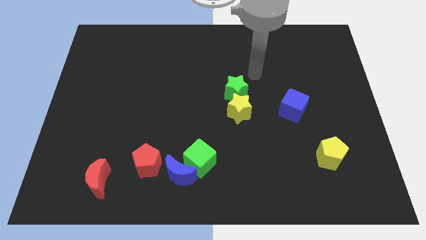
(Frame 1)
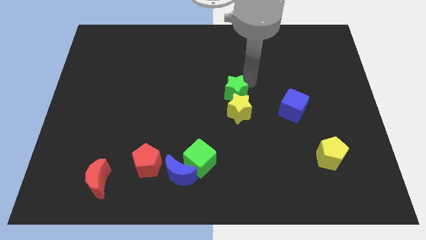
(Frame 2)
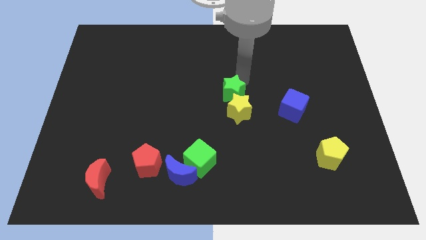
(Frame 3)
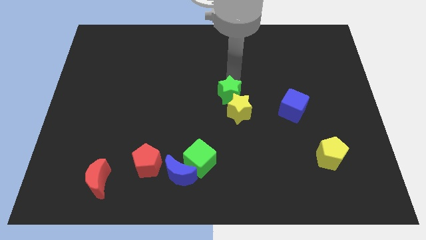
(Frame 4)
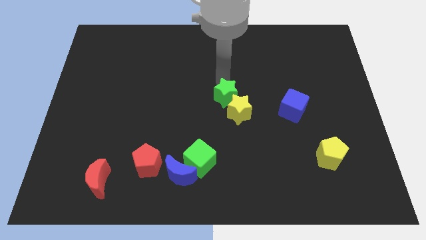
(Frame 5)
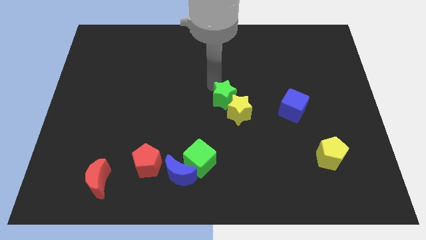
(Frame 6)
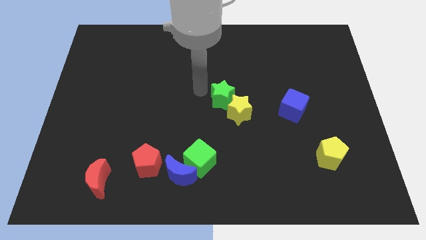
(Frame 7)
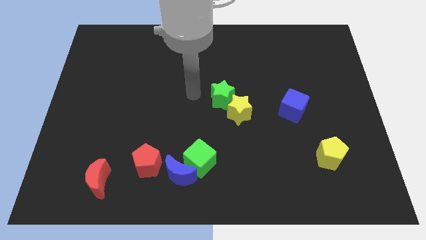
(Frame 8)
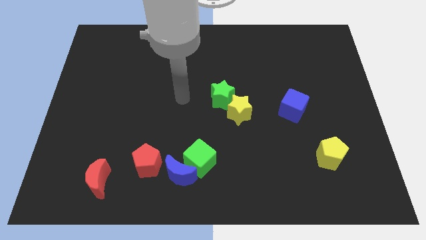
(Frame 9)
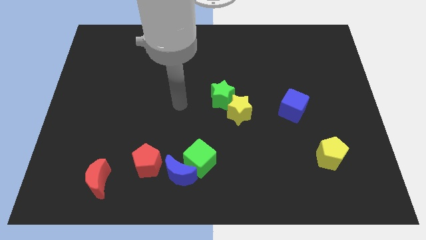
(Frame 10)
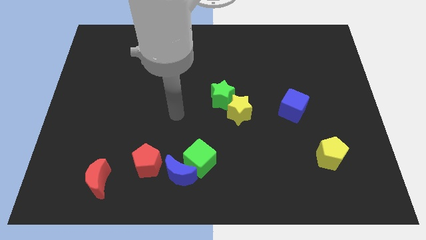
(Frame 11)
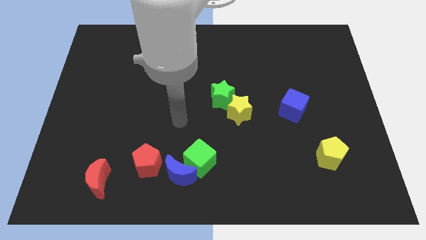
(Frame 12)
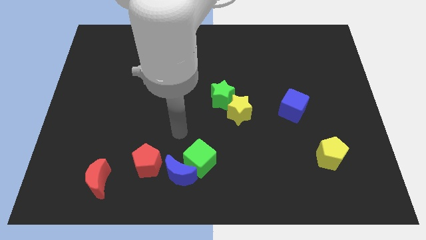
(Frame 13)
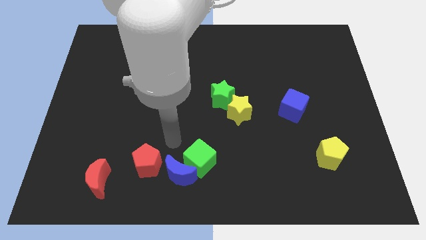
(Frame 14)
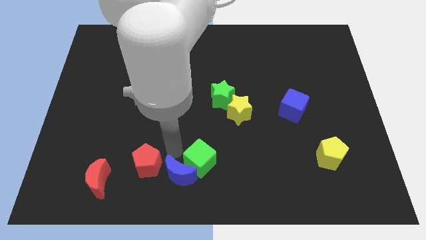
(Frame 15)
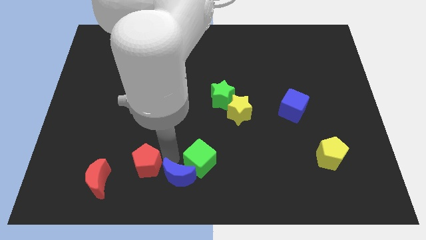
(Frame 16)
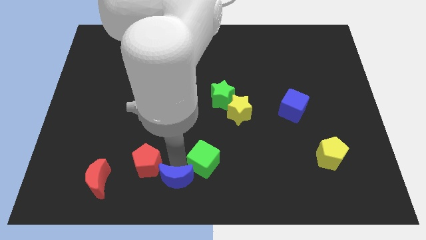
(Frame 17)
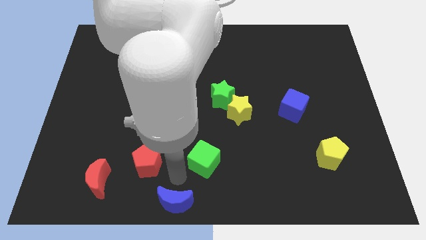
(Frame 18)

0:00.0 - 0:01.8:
separate the green cube from the blue moon

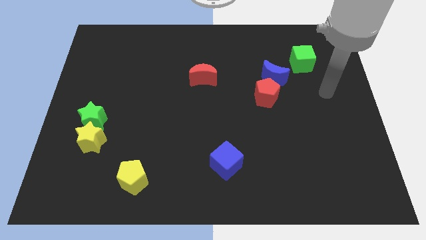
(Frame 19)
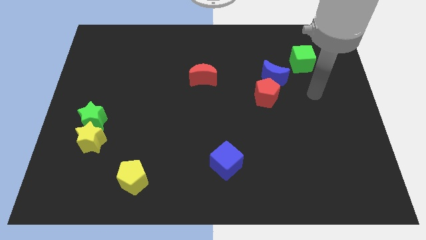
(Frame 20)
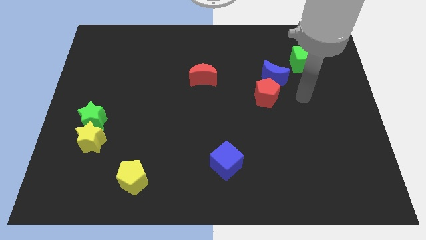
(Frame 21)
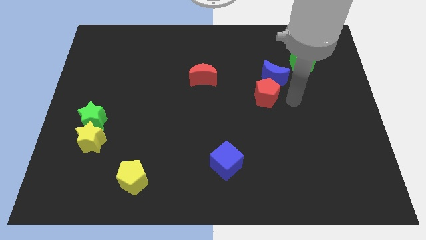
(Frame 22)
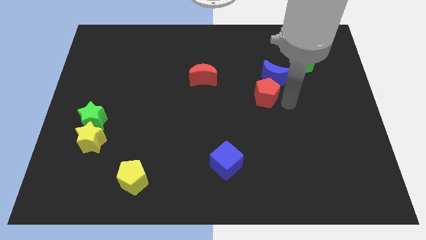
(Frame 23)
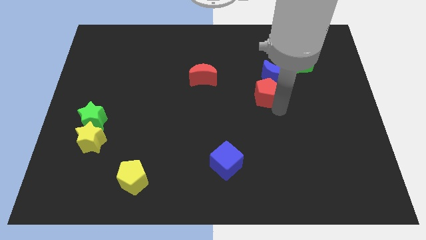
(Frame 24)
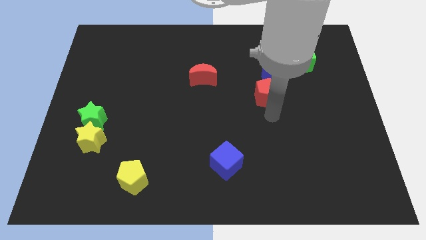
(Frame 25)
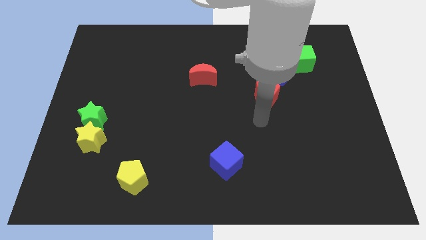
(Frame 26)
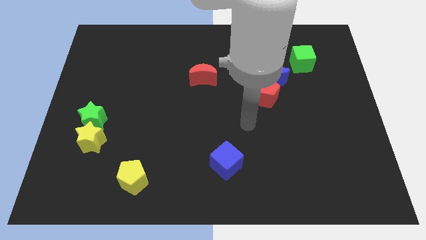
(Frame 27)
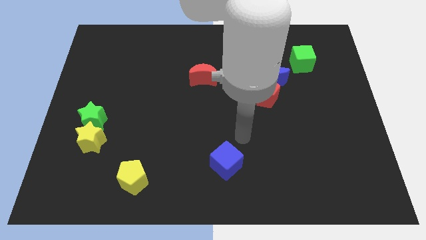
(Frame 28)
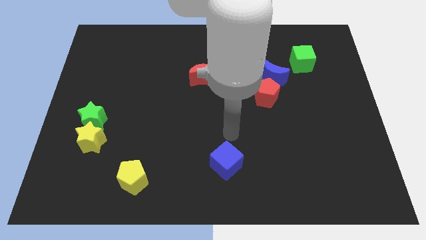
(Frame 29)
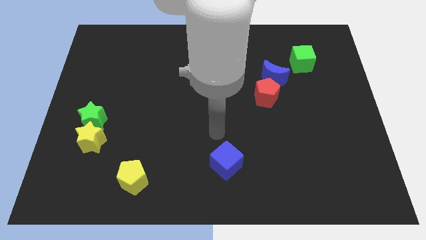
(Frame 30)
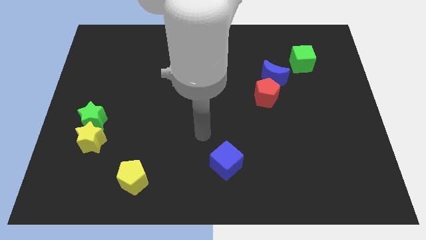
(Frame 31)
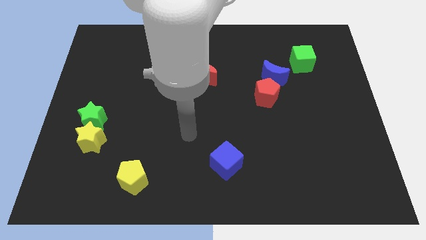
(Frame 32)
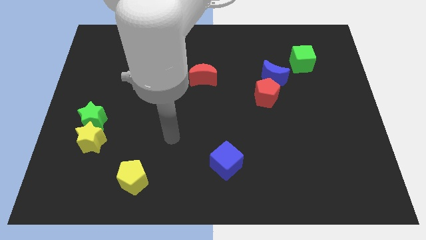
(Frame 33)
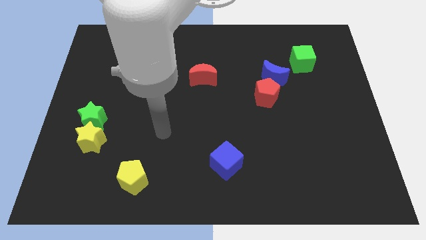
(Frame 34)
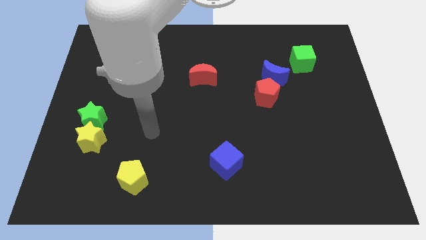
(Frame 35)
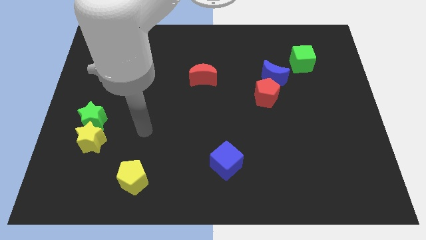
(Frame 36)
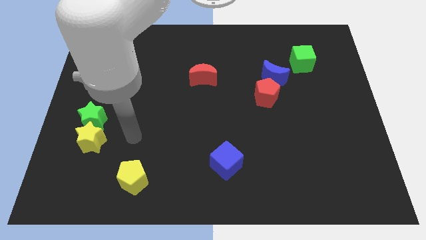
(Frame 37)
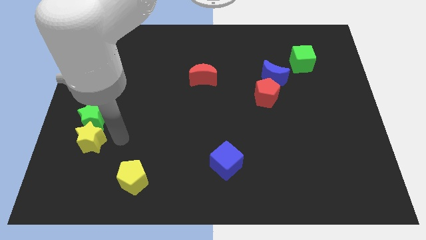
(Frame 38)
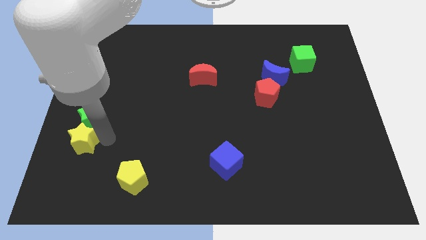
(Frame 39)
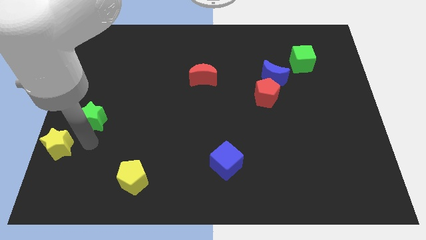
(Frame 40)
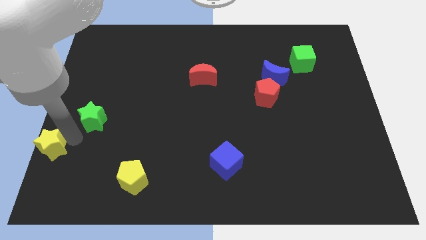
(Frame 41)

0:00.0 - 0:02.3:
separate the green star from the yellow star

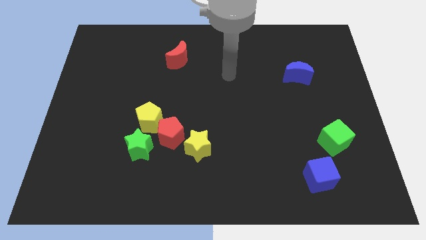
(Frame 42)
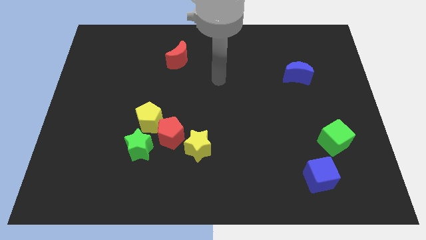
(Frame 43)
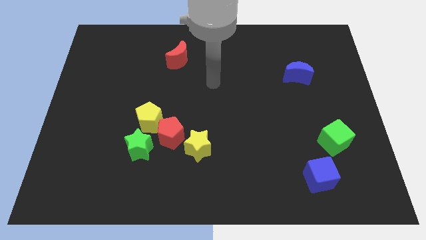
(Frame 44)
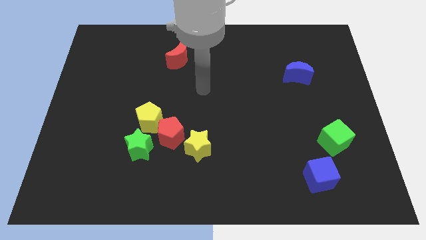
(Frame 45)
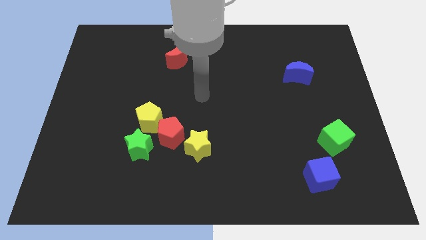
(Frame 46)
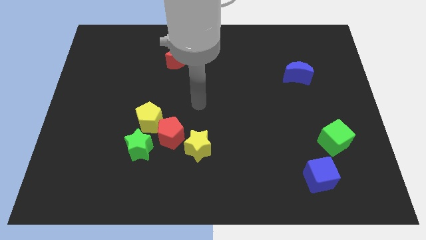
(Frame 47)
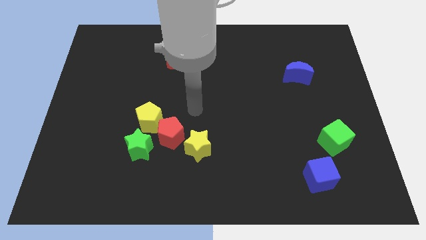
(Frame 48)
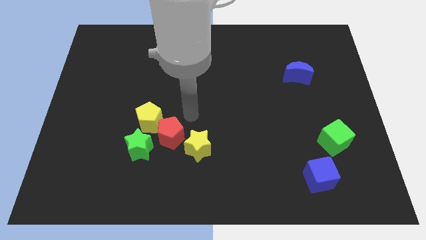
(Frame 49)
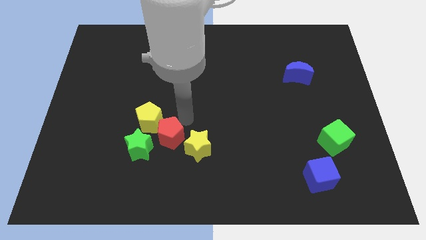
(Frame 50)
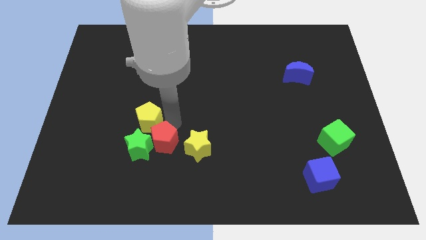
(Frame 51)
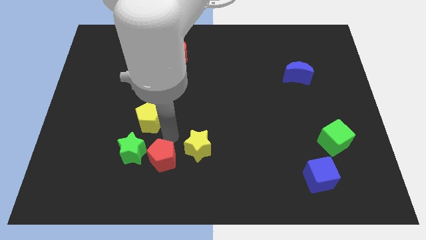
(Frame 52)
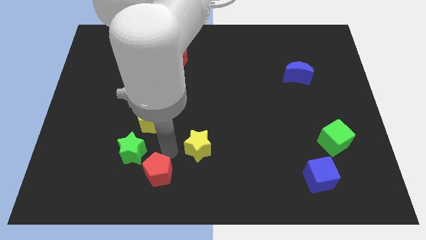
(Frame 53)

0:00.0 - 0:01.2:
move the yellow star away from the red pentagon

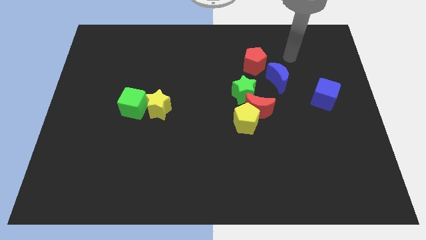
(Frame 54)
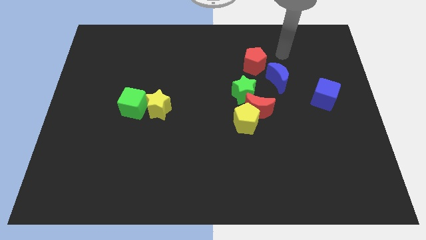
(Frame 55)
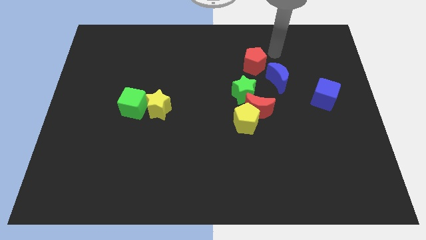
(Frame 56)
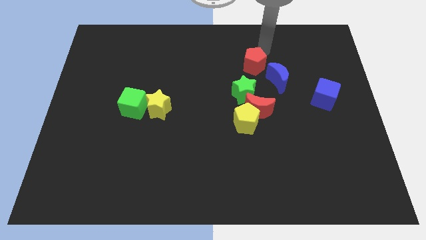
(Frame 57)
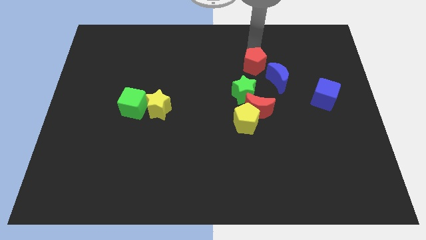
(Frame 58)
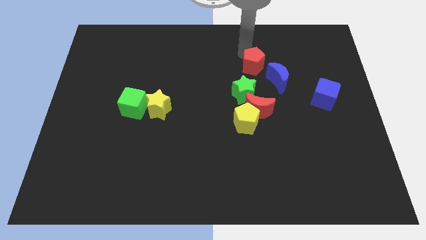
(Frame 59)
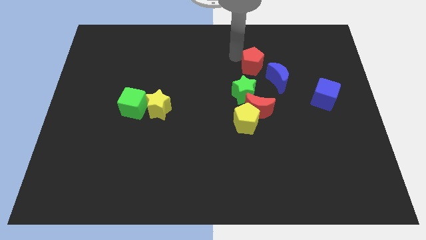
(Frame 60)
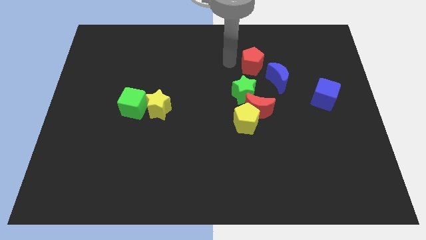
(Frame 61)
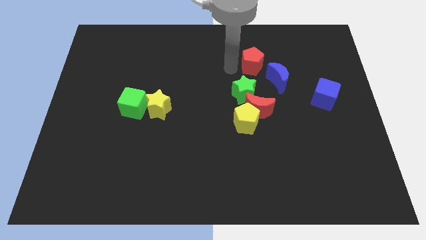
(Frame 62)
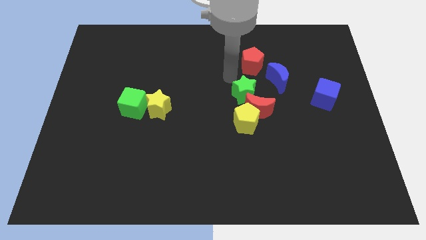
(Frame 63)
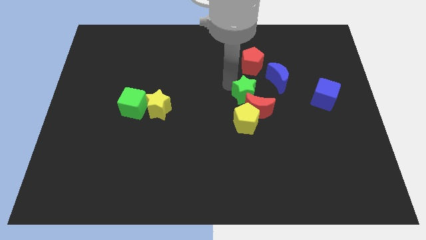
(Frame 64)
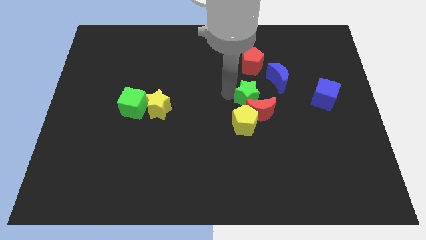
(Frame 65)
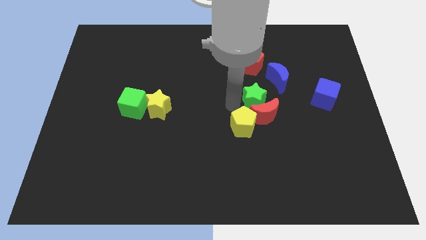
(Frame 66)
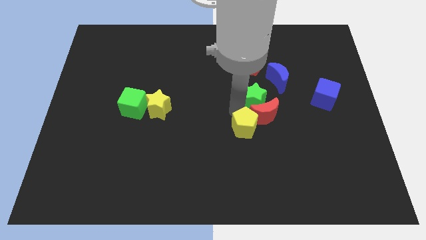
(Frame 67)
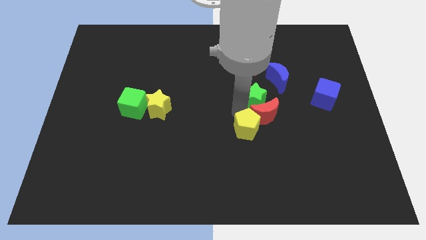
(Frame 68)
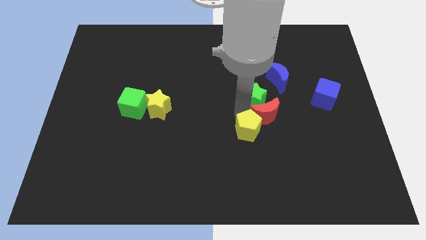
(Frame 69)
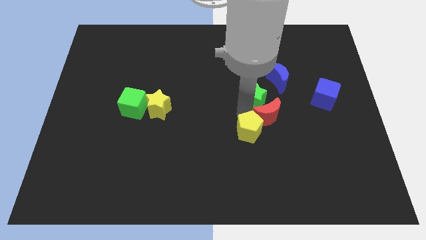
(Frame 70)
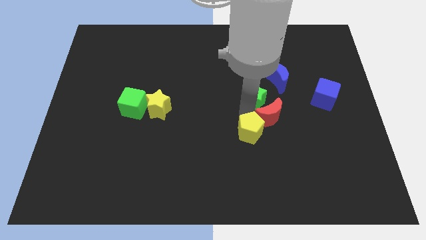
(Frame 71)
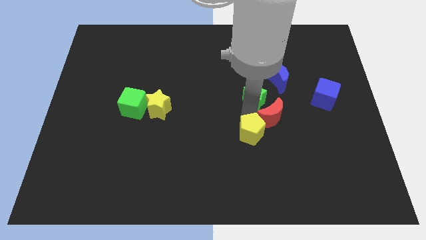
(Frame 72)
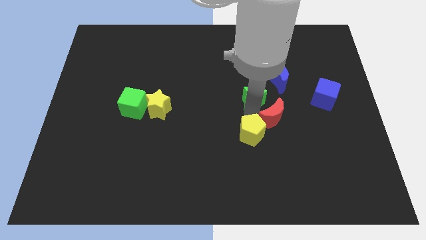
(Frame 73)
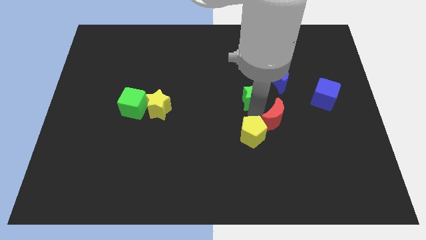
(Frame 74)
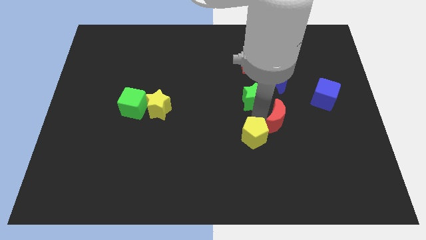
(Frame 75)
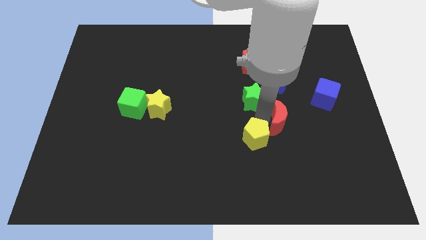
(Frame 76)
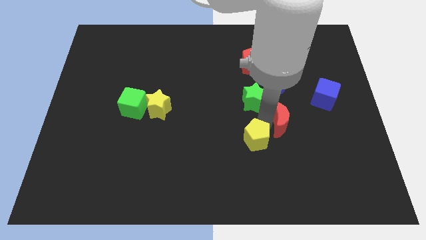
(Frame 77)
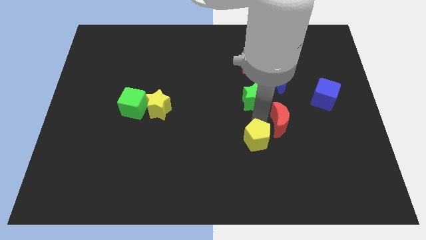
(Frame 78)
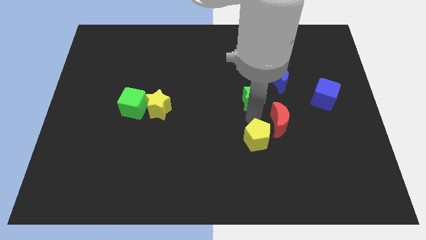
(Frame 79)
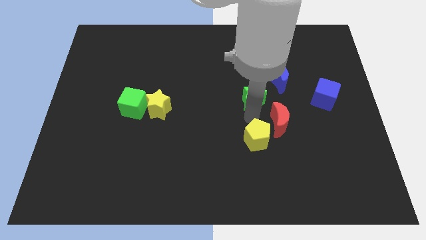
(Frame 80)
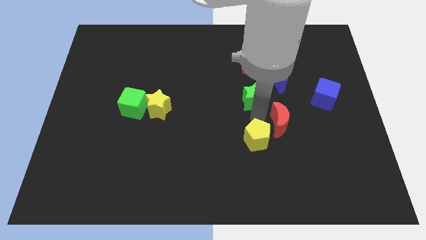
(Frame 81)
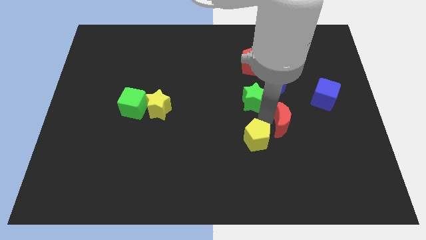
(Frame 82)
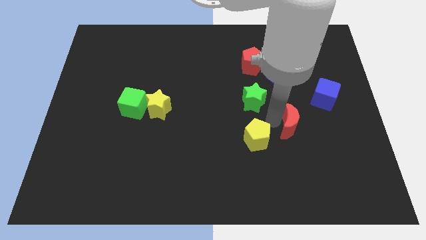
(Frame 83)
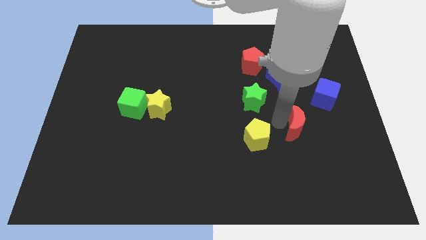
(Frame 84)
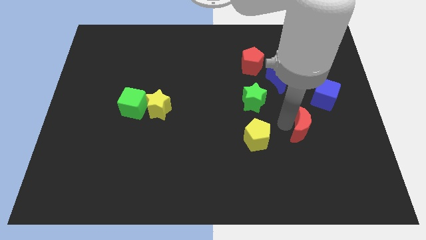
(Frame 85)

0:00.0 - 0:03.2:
pull the red moon apart from the yellow pentagon and green star

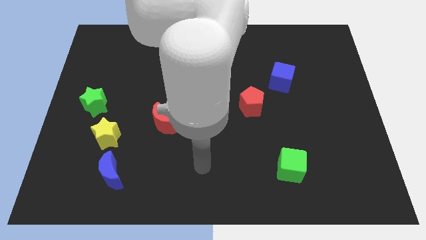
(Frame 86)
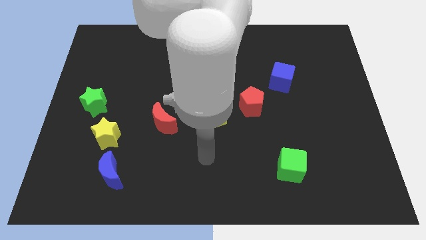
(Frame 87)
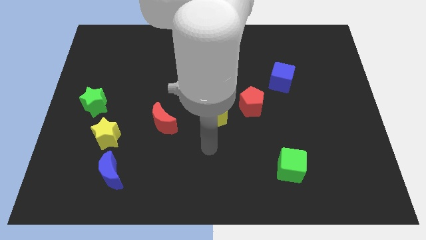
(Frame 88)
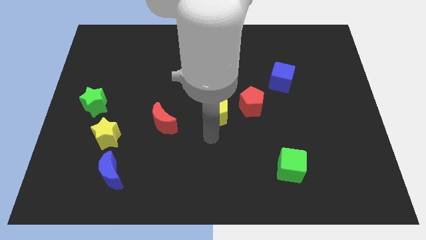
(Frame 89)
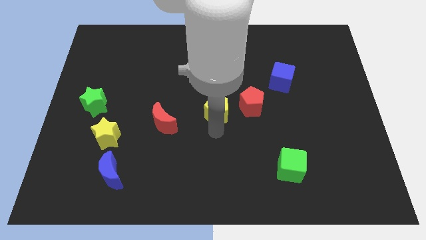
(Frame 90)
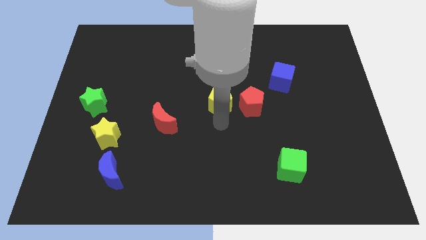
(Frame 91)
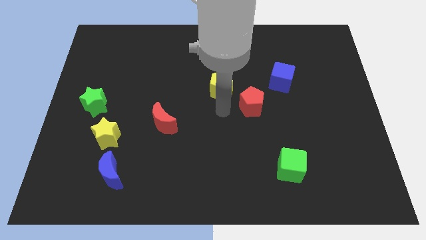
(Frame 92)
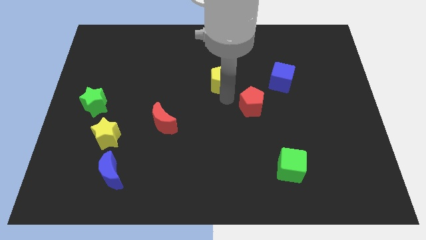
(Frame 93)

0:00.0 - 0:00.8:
separate the red pentagon from the yellow pentagon
